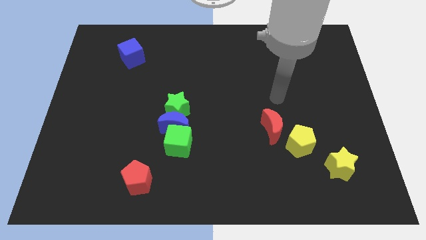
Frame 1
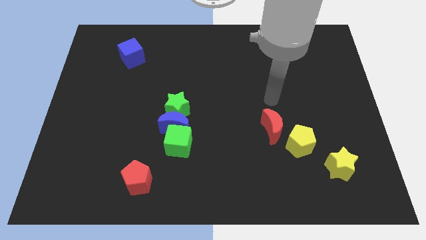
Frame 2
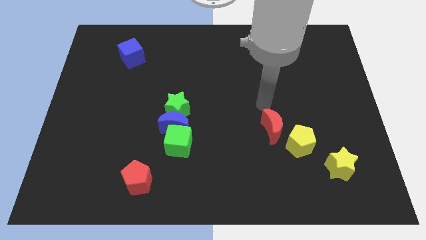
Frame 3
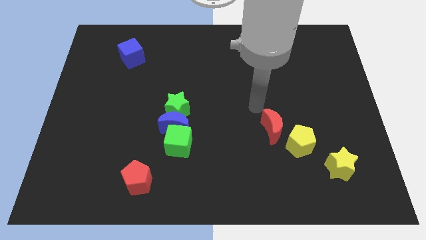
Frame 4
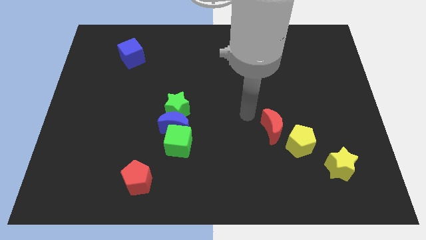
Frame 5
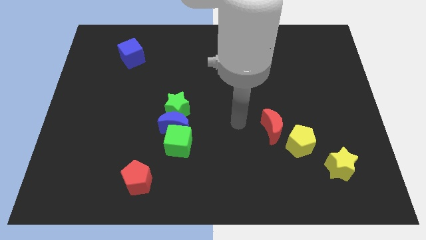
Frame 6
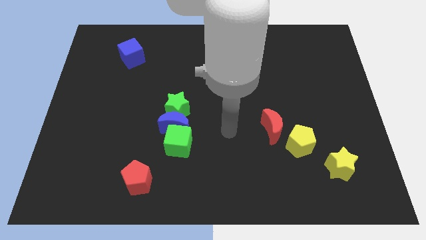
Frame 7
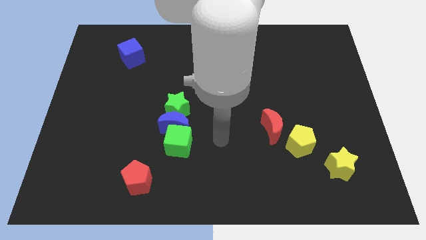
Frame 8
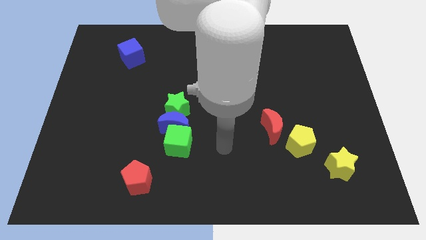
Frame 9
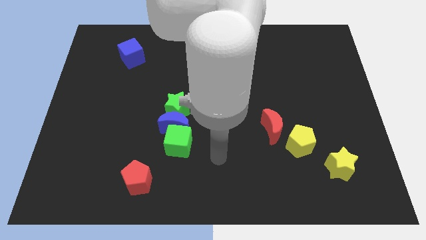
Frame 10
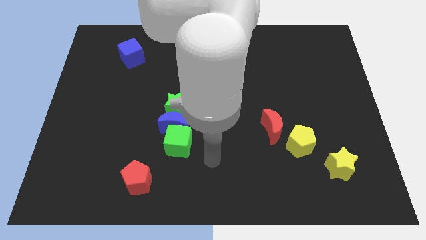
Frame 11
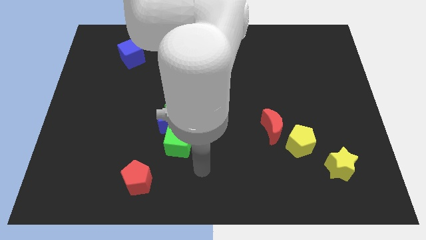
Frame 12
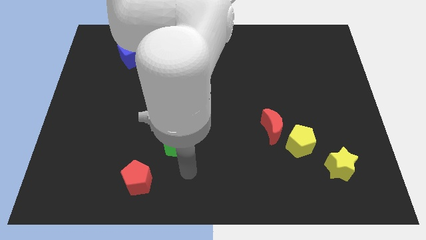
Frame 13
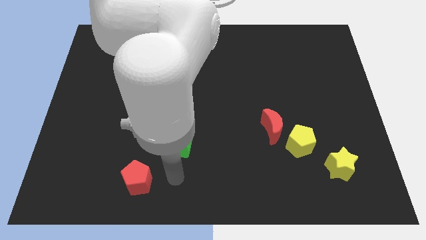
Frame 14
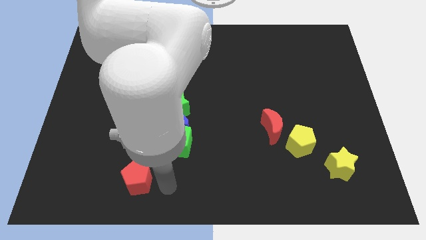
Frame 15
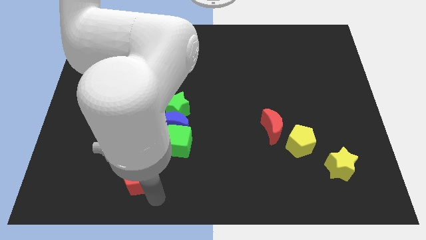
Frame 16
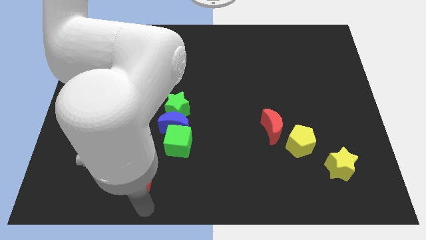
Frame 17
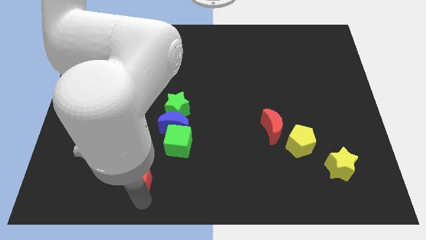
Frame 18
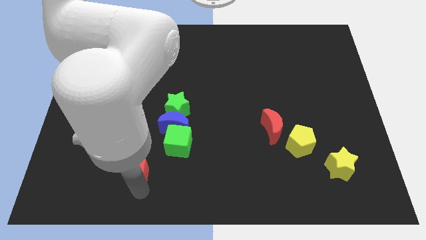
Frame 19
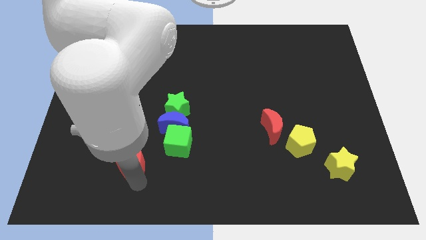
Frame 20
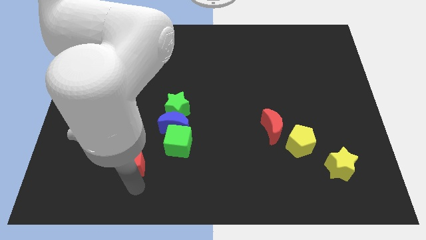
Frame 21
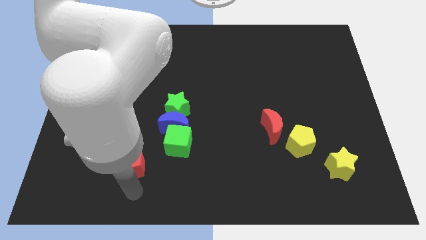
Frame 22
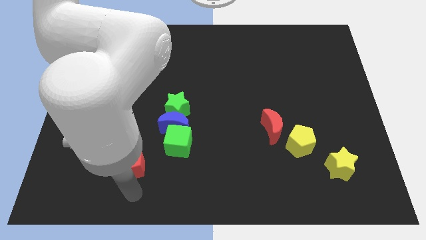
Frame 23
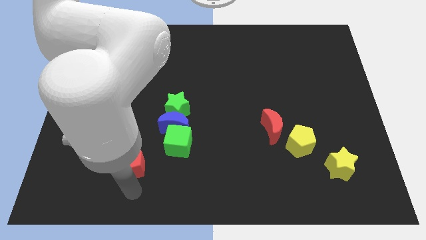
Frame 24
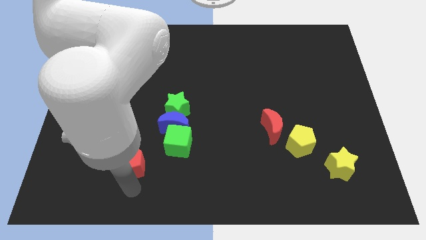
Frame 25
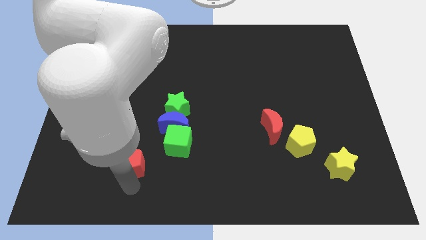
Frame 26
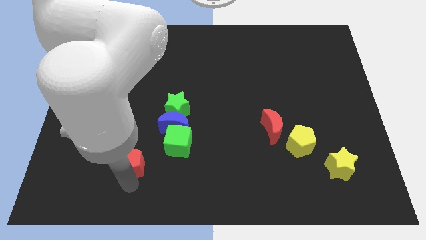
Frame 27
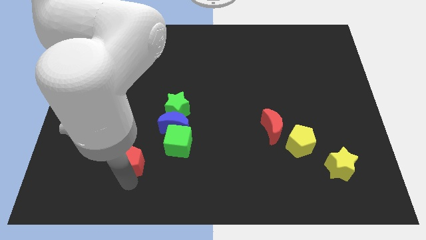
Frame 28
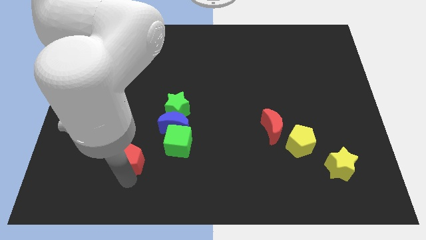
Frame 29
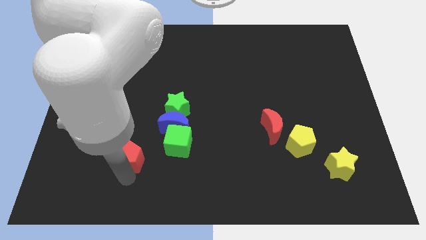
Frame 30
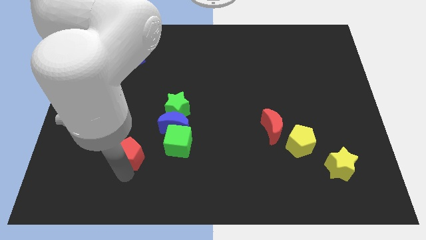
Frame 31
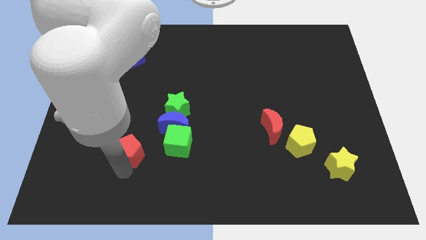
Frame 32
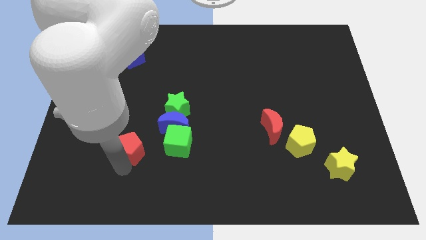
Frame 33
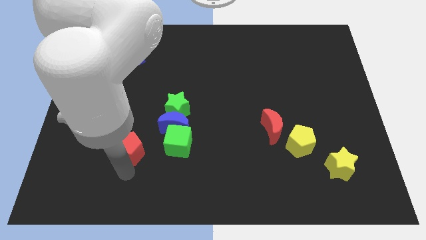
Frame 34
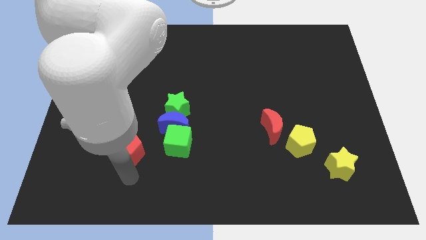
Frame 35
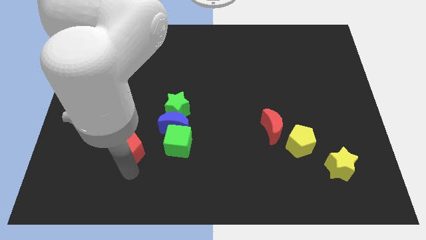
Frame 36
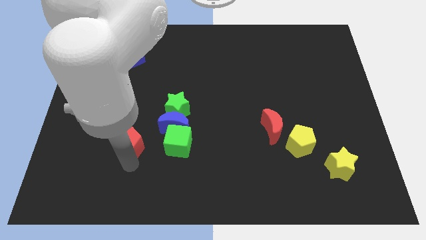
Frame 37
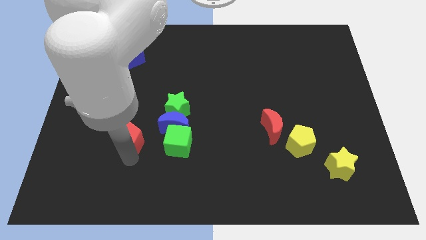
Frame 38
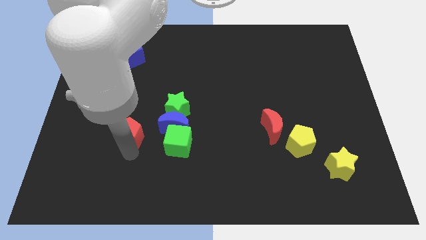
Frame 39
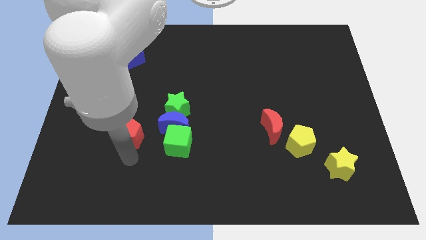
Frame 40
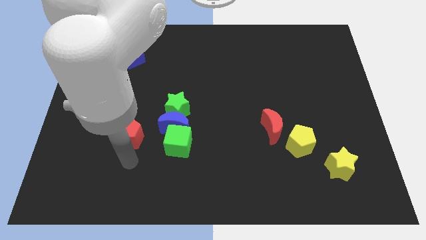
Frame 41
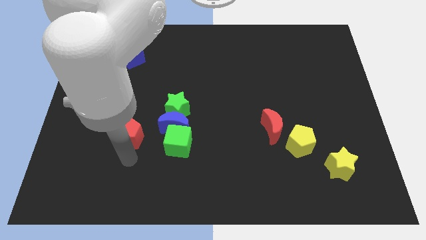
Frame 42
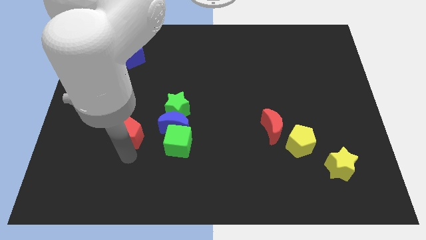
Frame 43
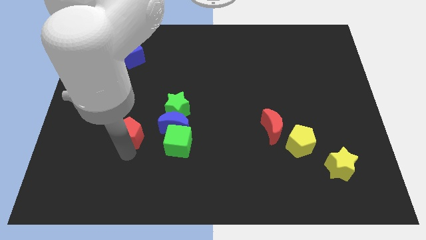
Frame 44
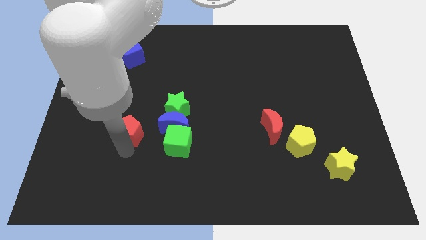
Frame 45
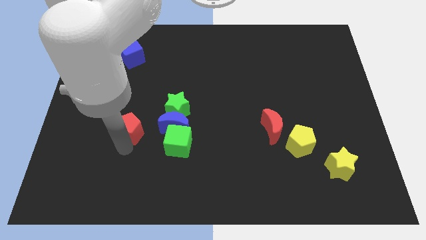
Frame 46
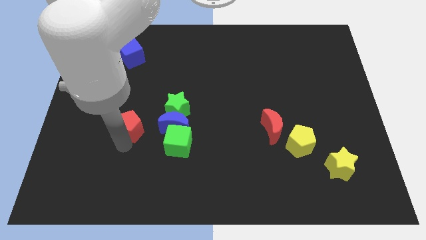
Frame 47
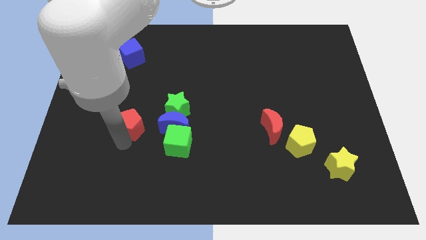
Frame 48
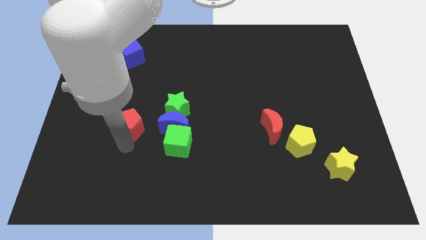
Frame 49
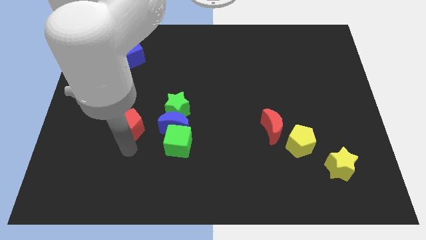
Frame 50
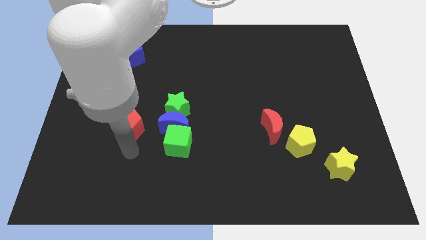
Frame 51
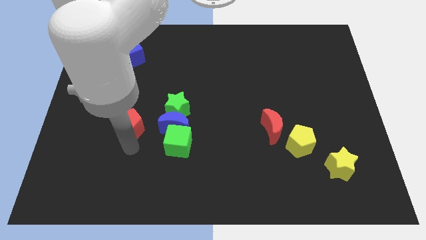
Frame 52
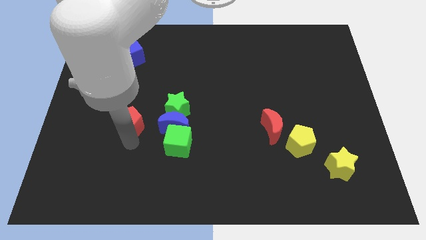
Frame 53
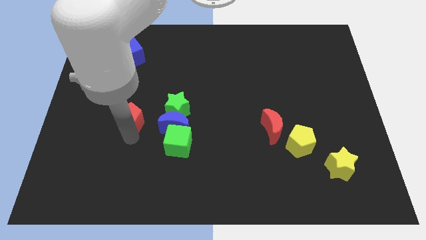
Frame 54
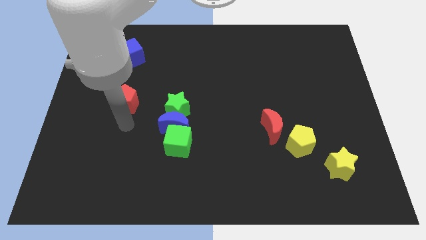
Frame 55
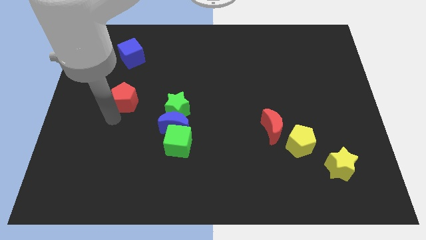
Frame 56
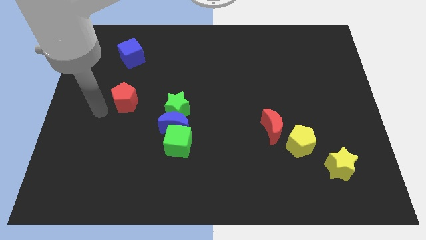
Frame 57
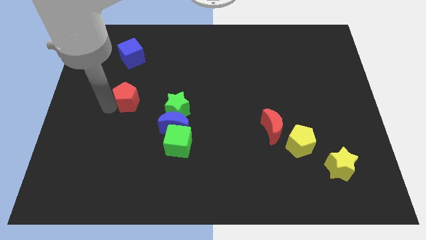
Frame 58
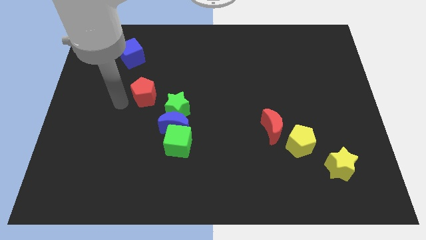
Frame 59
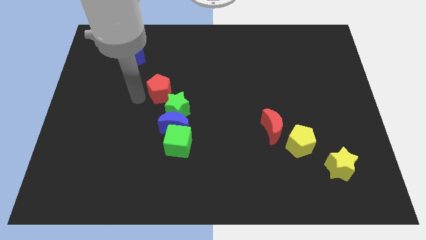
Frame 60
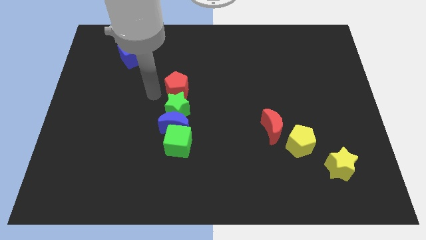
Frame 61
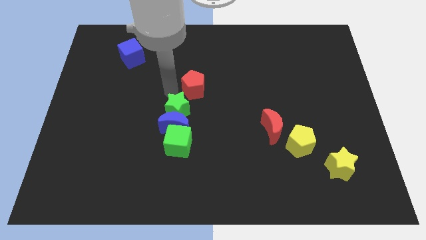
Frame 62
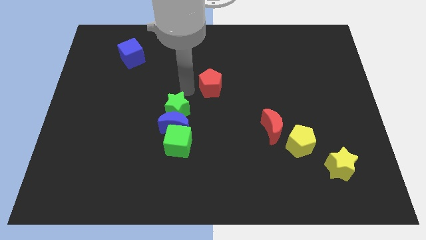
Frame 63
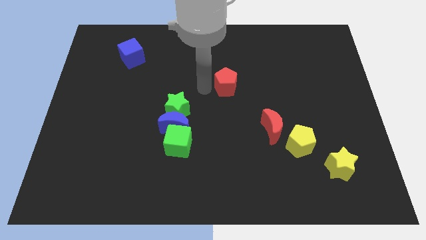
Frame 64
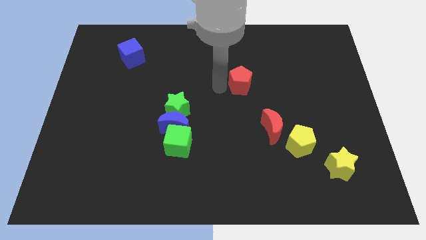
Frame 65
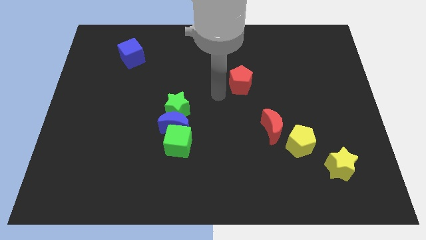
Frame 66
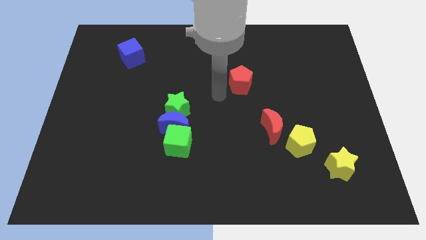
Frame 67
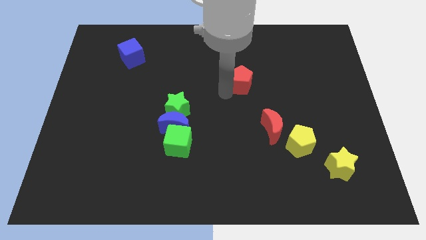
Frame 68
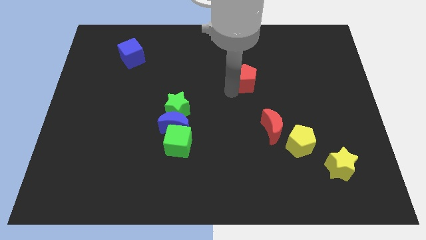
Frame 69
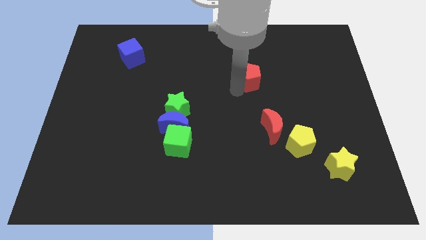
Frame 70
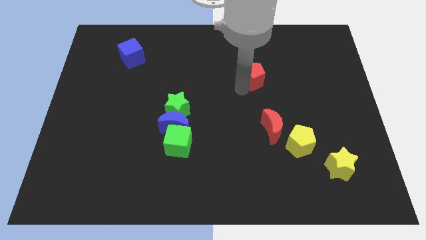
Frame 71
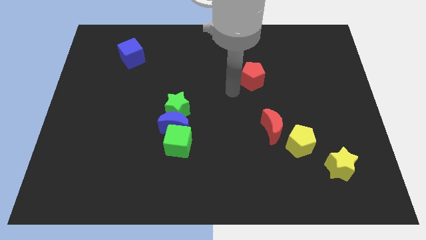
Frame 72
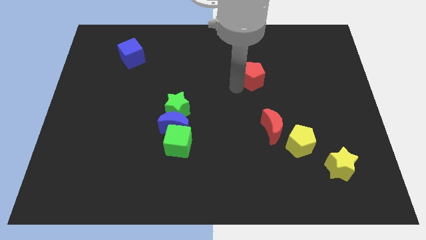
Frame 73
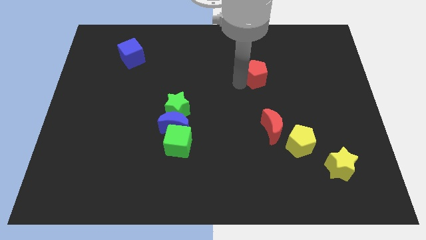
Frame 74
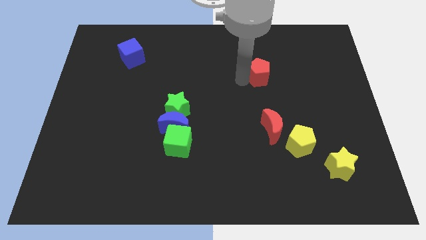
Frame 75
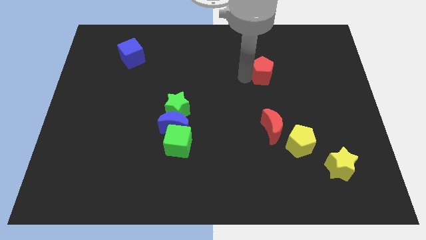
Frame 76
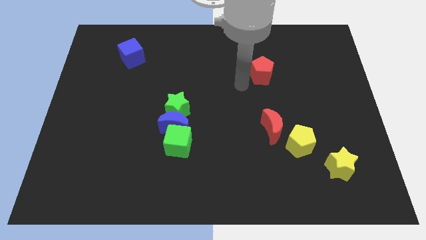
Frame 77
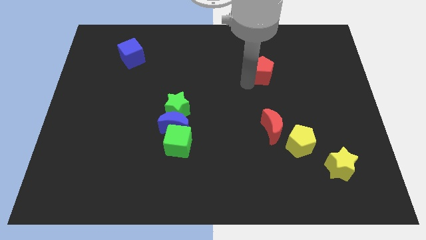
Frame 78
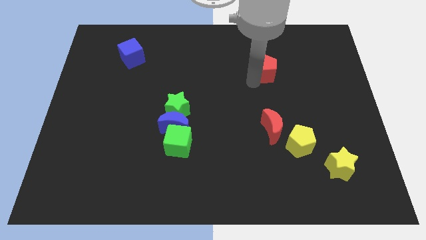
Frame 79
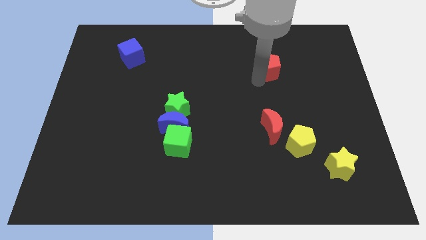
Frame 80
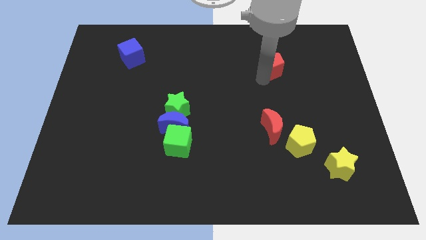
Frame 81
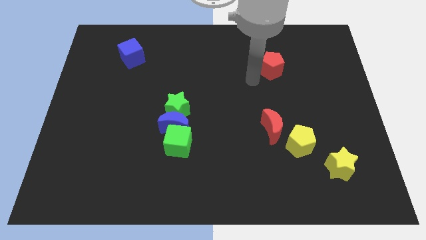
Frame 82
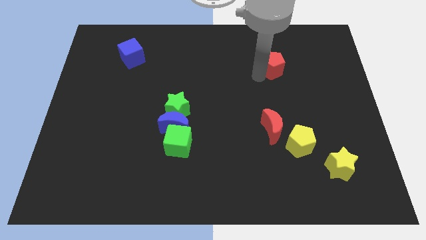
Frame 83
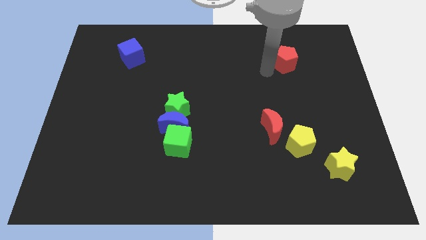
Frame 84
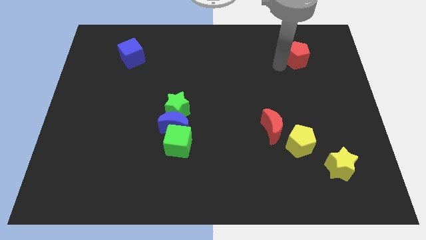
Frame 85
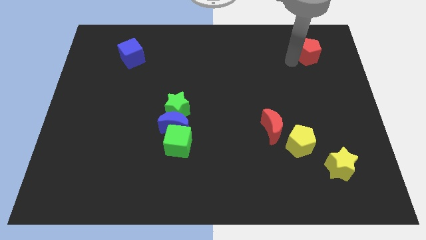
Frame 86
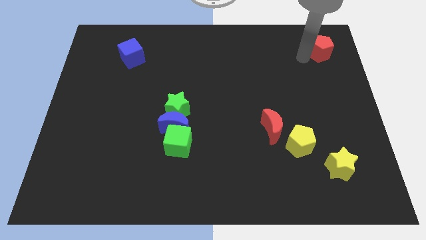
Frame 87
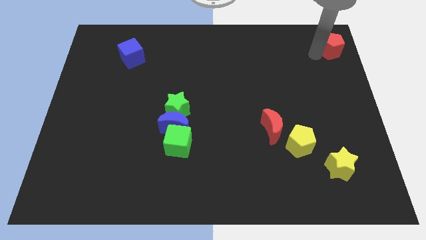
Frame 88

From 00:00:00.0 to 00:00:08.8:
slide the red pentagon to the top right
